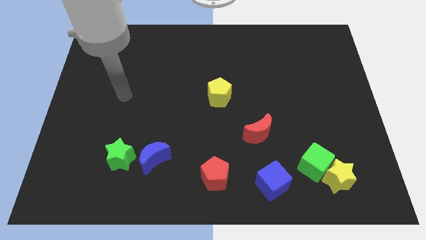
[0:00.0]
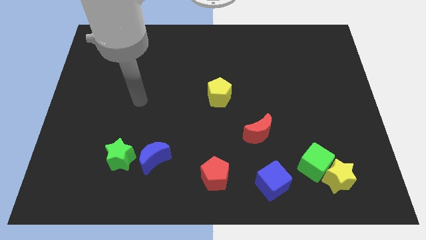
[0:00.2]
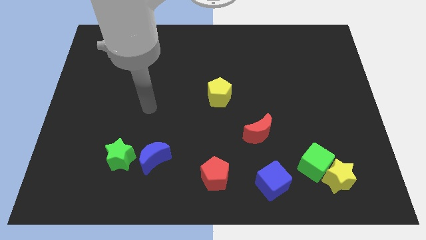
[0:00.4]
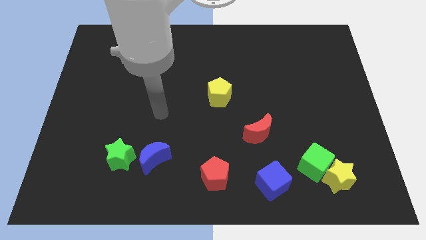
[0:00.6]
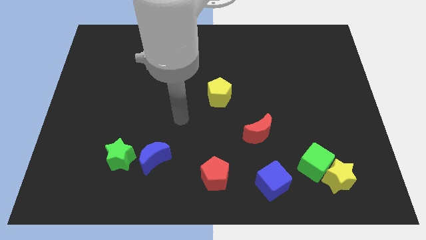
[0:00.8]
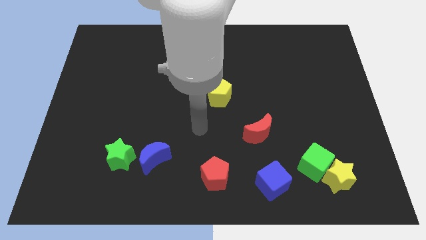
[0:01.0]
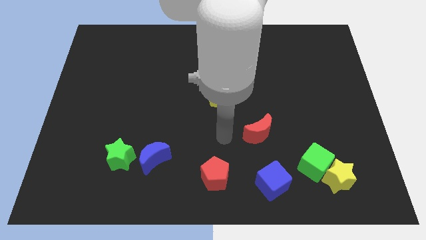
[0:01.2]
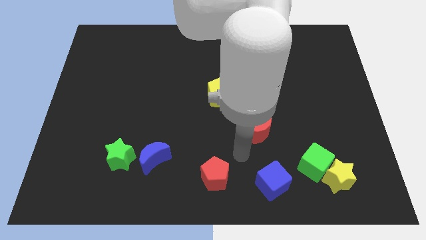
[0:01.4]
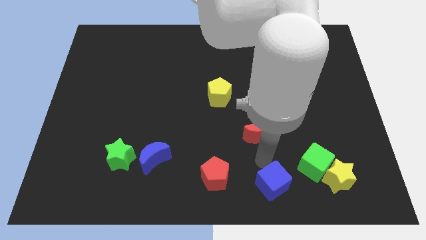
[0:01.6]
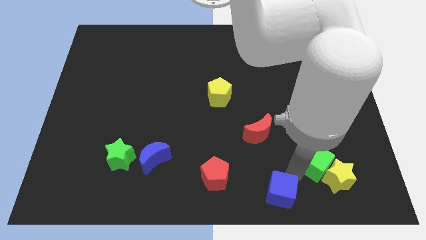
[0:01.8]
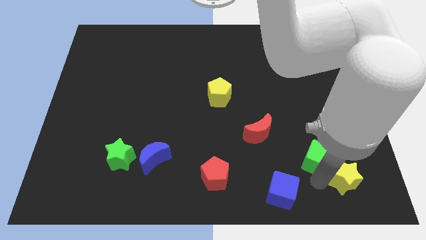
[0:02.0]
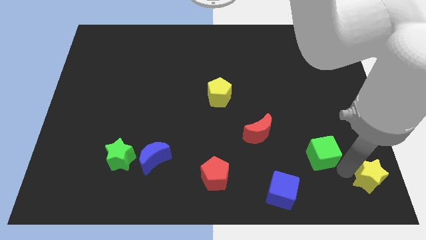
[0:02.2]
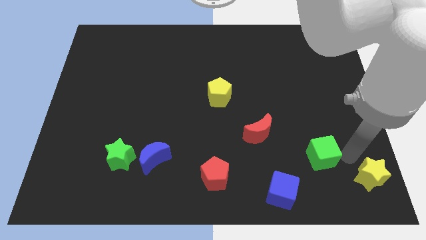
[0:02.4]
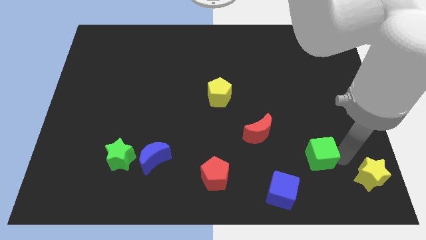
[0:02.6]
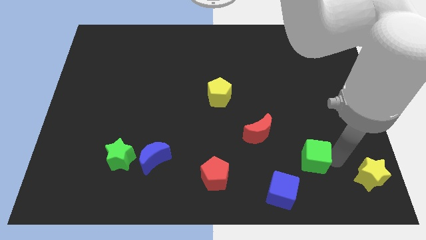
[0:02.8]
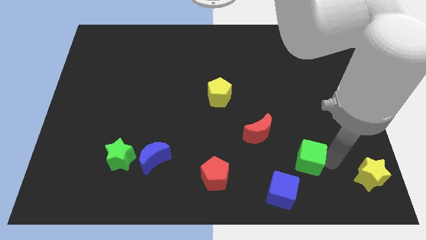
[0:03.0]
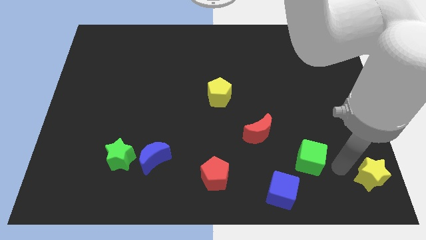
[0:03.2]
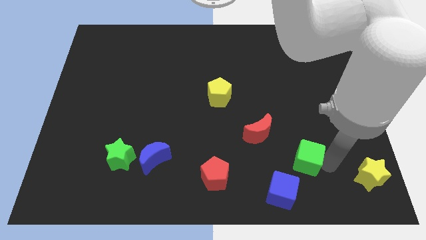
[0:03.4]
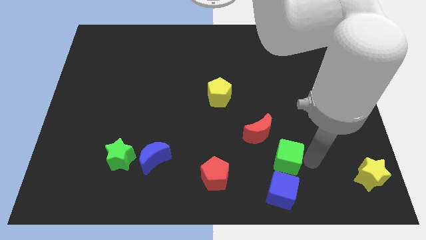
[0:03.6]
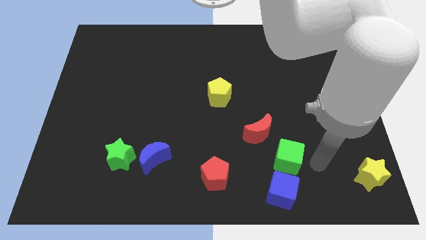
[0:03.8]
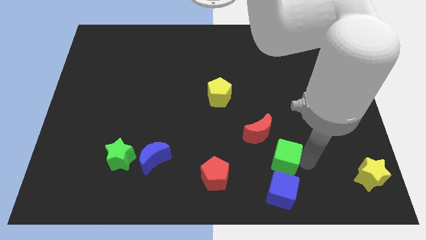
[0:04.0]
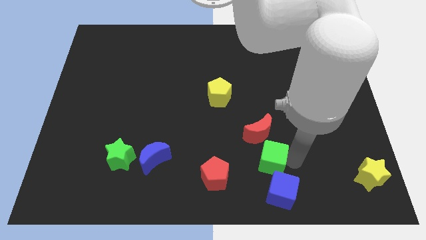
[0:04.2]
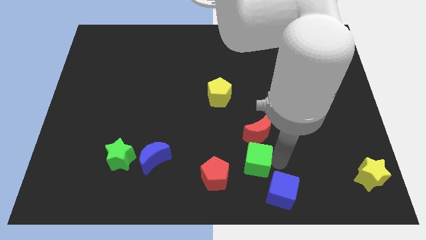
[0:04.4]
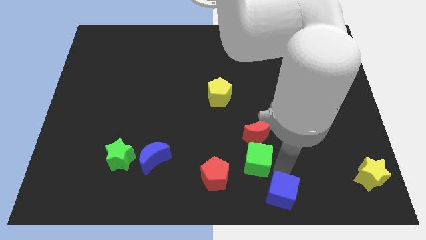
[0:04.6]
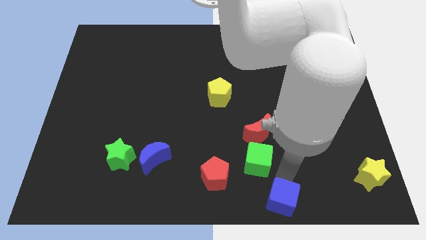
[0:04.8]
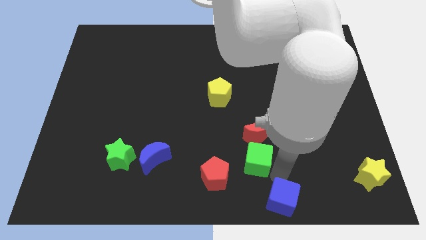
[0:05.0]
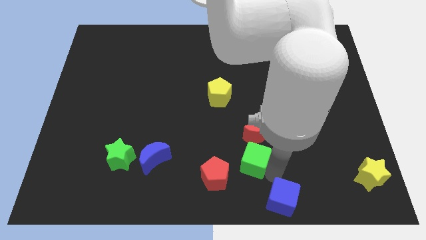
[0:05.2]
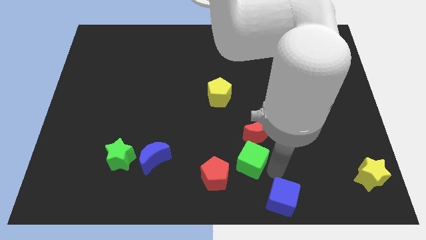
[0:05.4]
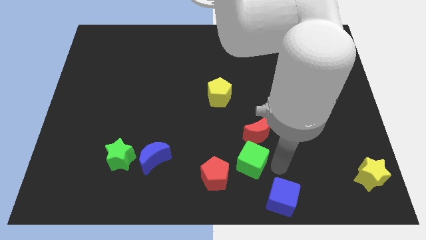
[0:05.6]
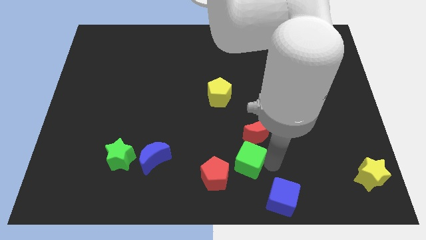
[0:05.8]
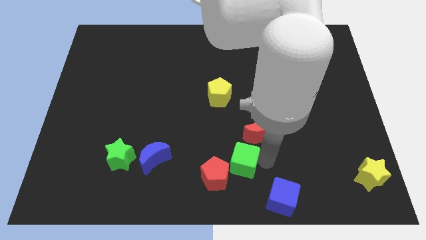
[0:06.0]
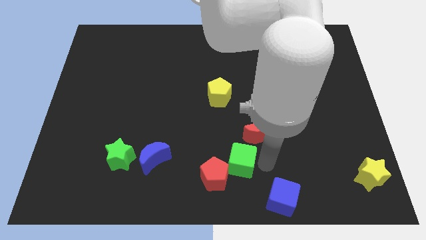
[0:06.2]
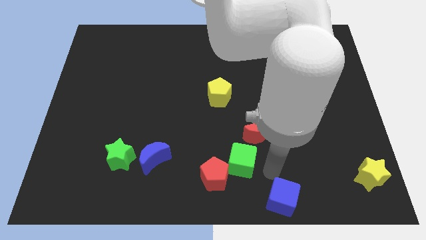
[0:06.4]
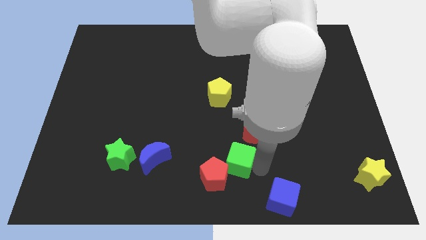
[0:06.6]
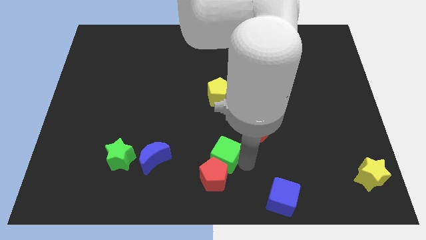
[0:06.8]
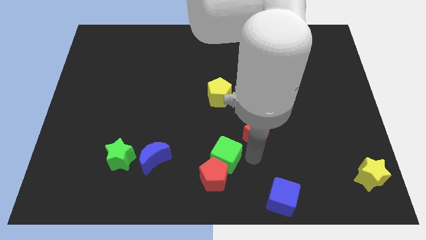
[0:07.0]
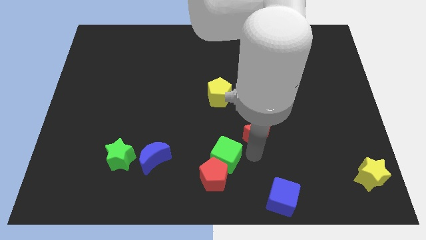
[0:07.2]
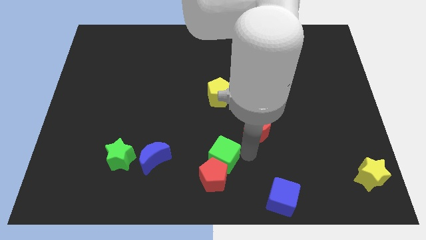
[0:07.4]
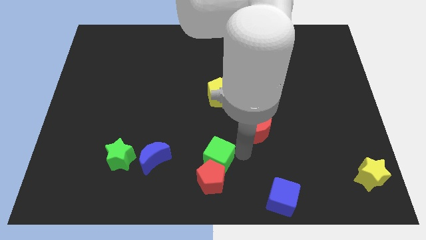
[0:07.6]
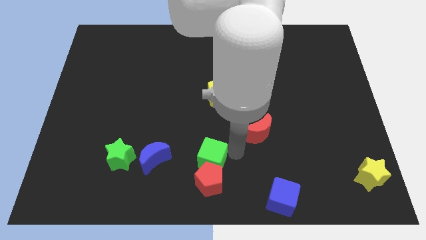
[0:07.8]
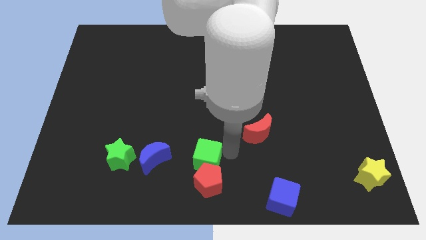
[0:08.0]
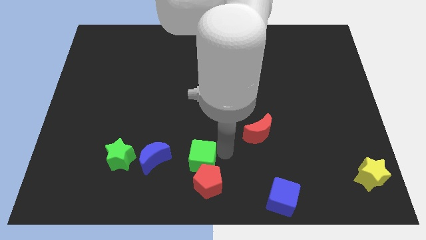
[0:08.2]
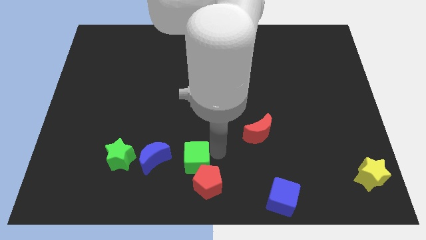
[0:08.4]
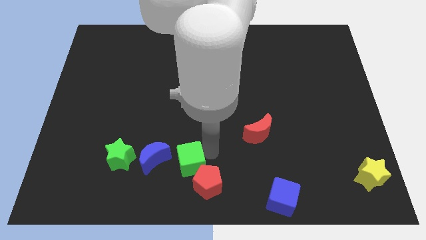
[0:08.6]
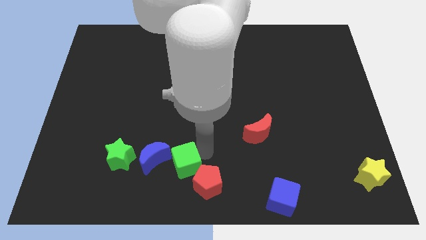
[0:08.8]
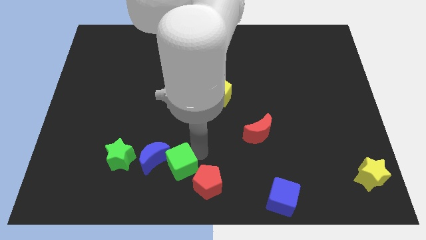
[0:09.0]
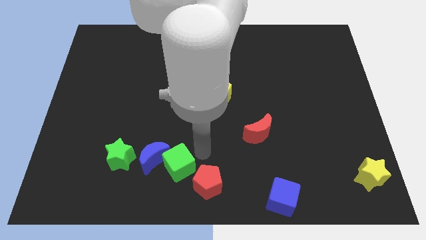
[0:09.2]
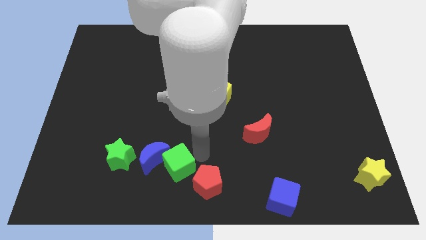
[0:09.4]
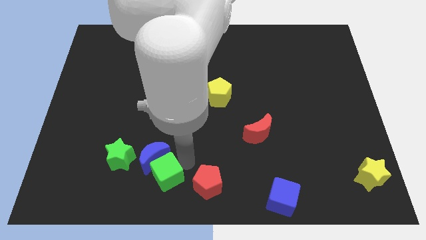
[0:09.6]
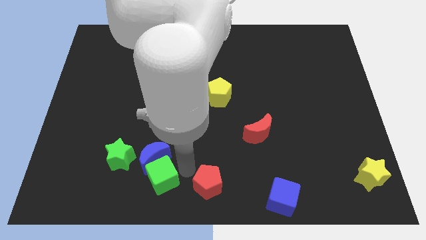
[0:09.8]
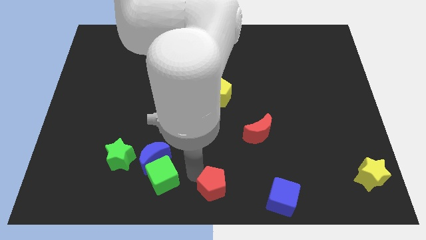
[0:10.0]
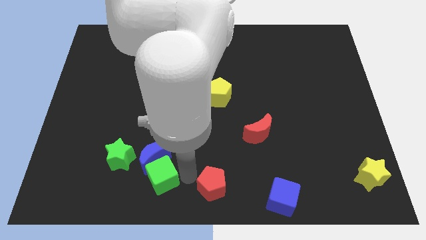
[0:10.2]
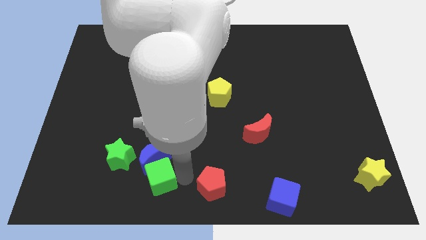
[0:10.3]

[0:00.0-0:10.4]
slide the green cube to the bottom left of the blue moon

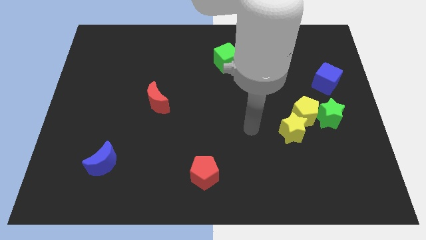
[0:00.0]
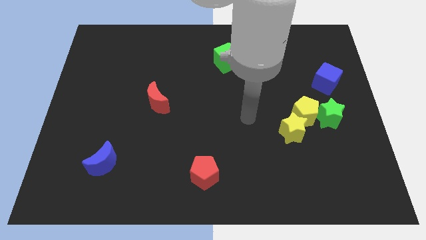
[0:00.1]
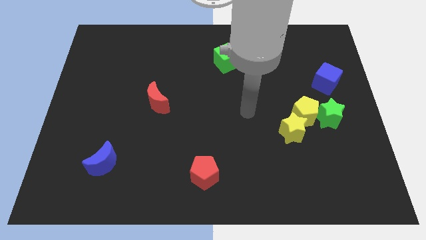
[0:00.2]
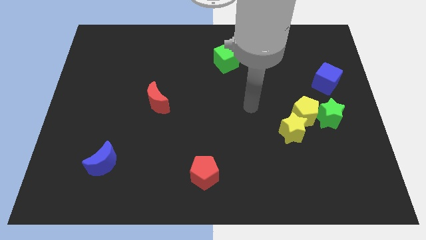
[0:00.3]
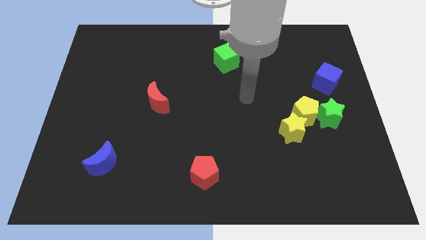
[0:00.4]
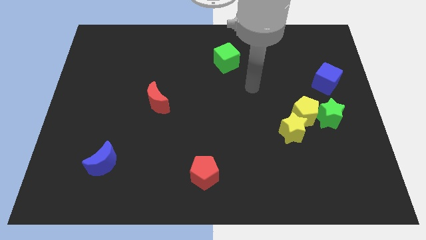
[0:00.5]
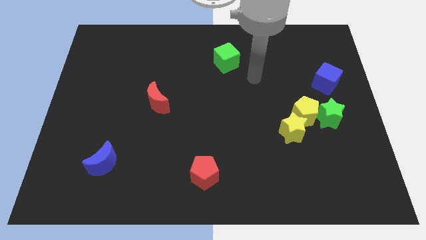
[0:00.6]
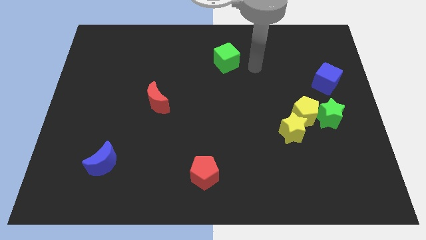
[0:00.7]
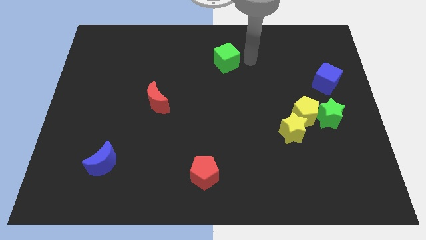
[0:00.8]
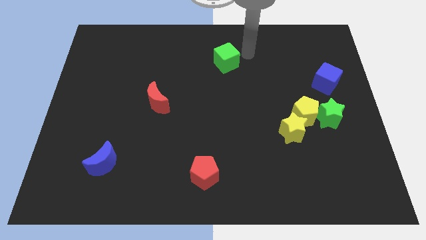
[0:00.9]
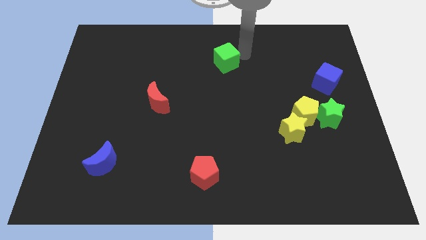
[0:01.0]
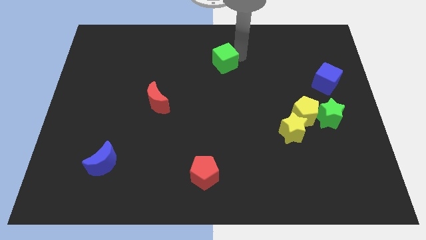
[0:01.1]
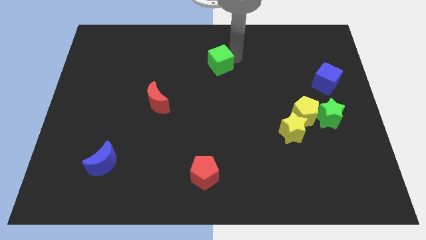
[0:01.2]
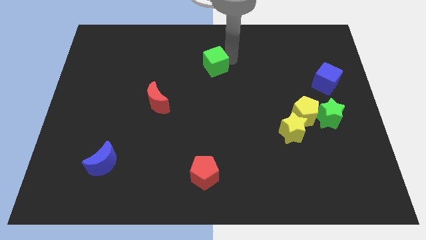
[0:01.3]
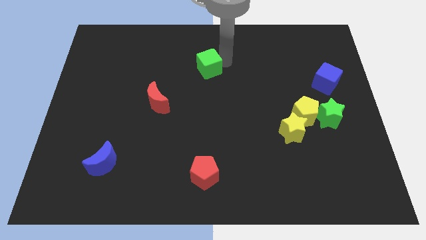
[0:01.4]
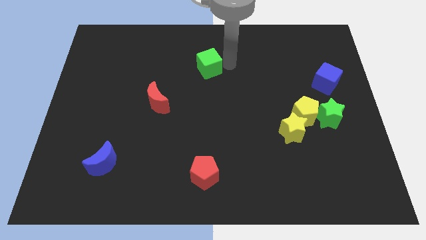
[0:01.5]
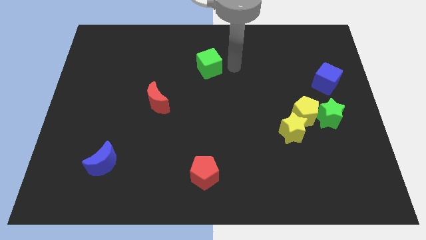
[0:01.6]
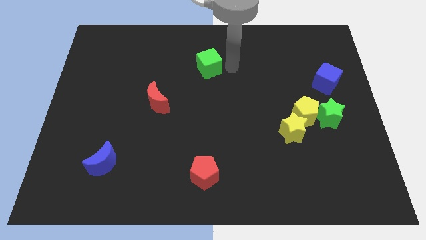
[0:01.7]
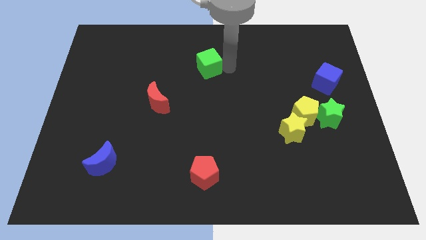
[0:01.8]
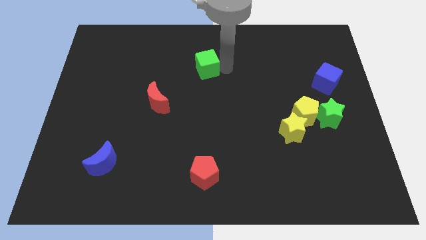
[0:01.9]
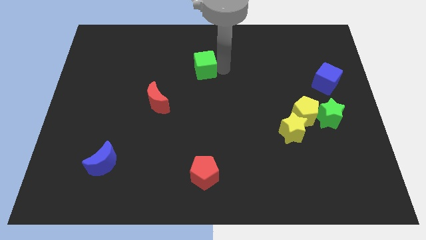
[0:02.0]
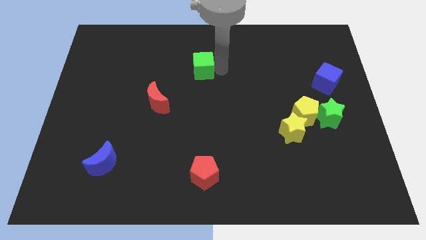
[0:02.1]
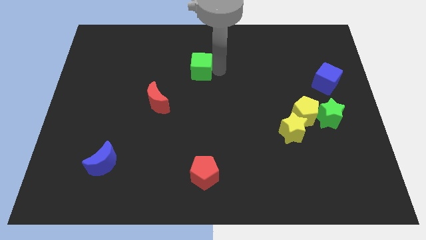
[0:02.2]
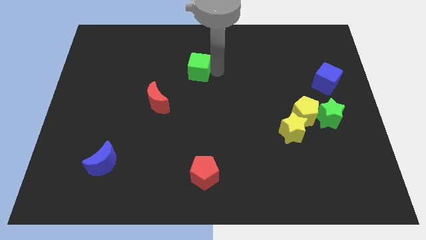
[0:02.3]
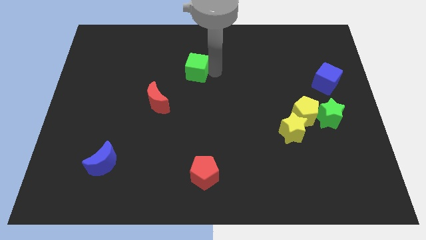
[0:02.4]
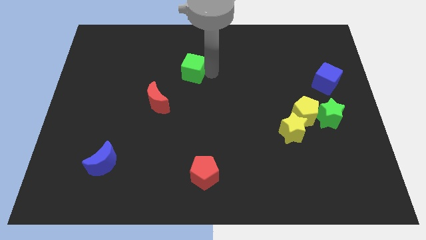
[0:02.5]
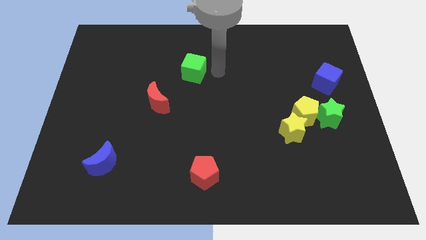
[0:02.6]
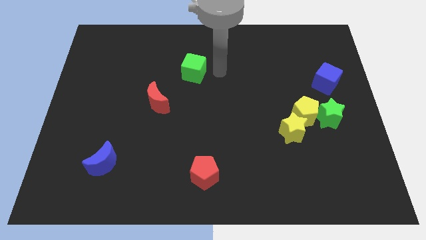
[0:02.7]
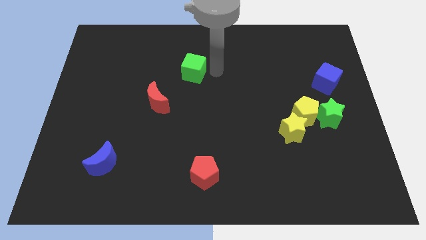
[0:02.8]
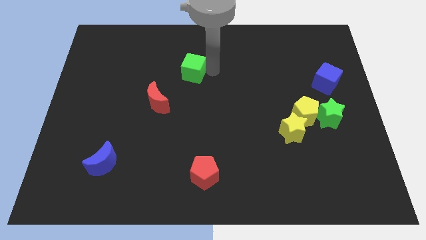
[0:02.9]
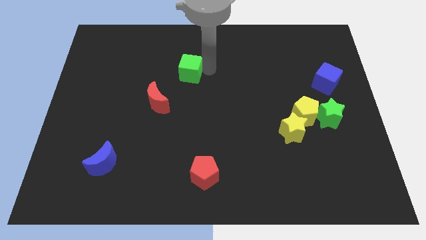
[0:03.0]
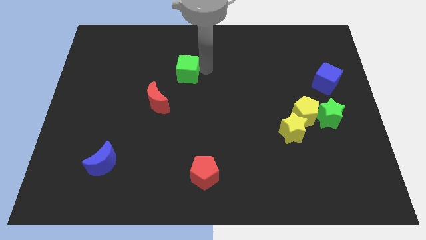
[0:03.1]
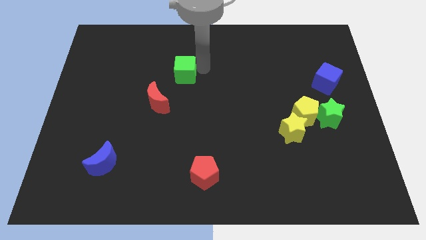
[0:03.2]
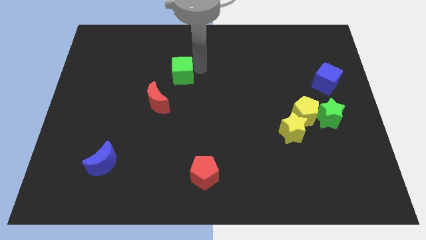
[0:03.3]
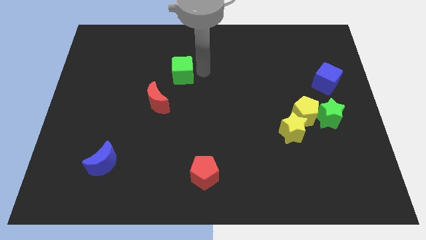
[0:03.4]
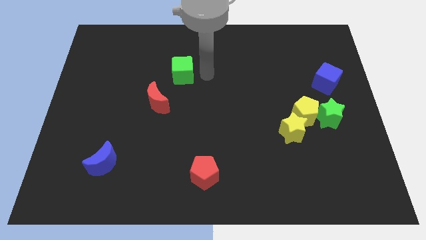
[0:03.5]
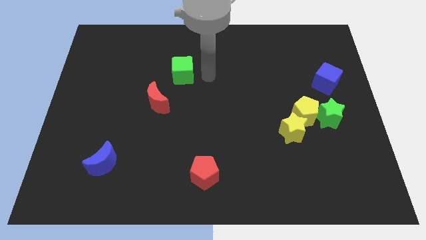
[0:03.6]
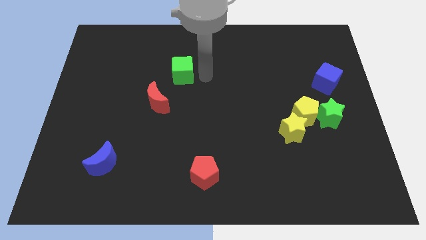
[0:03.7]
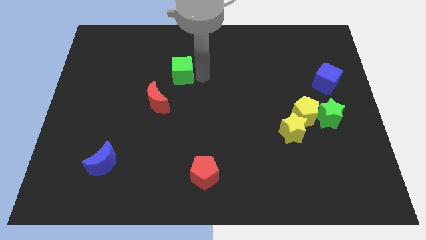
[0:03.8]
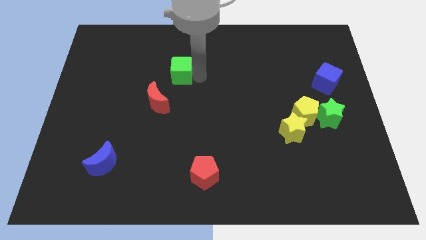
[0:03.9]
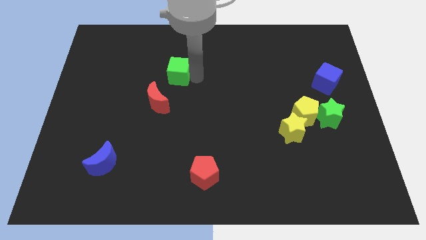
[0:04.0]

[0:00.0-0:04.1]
slide the green cube to the top of the red moon
